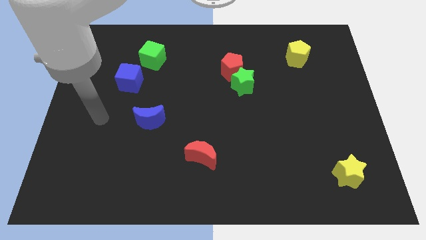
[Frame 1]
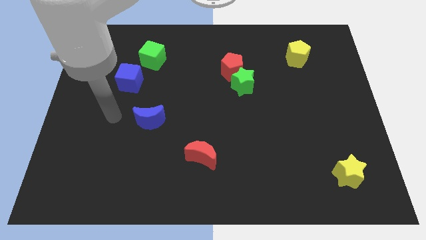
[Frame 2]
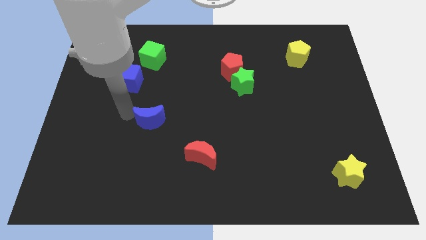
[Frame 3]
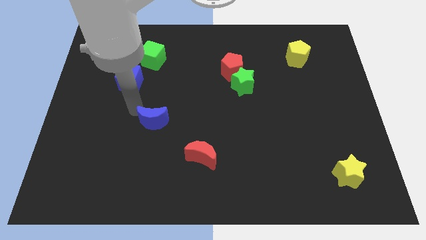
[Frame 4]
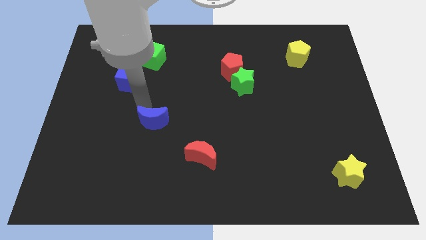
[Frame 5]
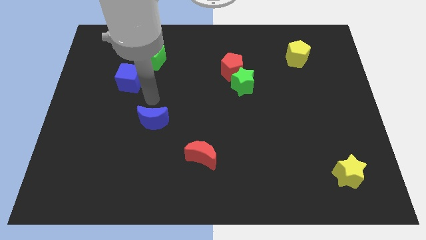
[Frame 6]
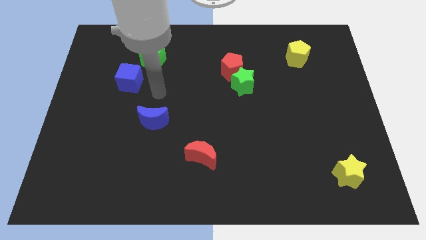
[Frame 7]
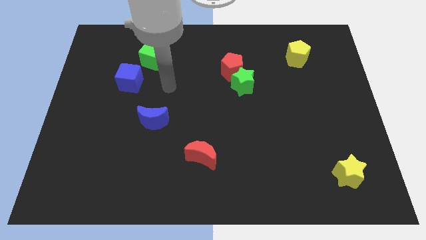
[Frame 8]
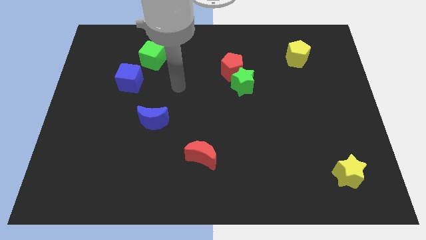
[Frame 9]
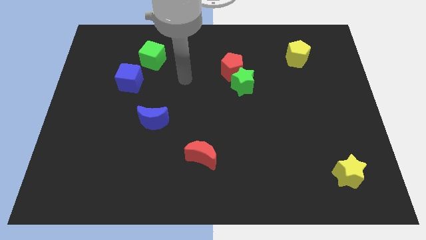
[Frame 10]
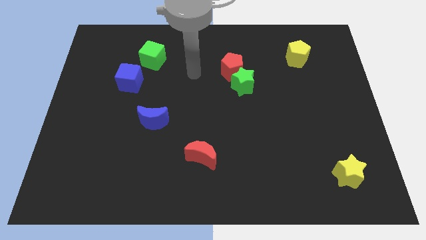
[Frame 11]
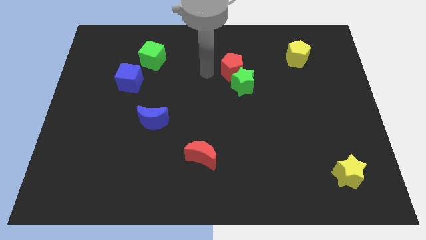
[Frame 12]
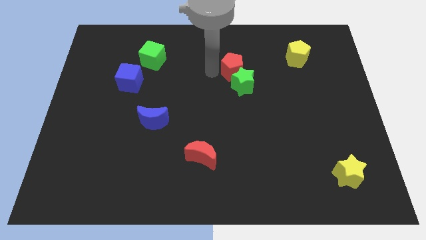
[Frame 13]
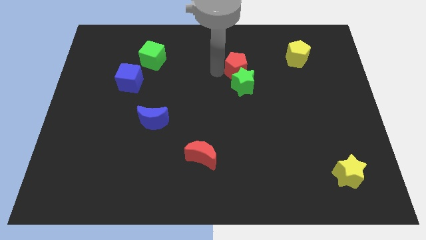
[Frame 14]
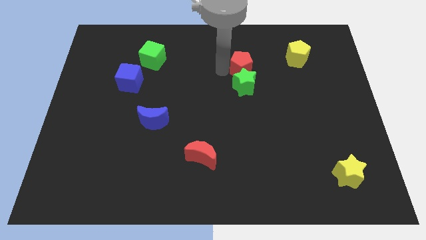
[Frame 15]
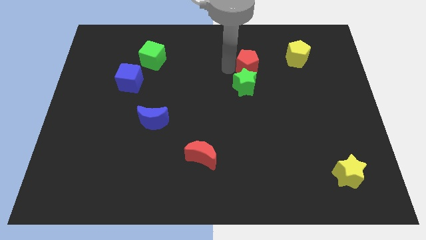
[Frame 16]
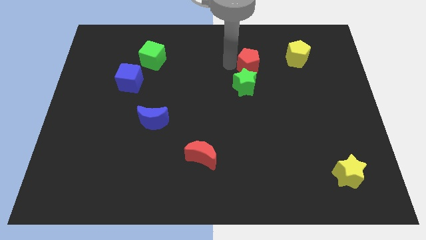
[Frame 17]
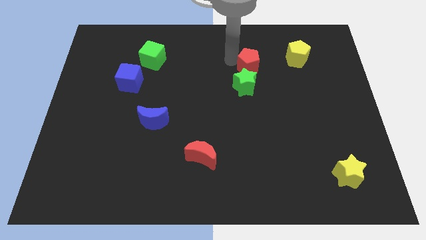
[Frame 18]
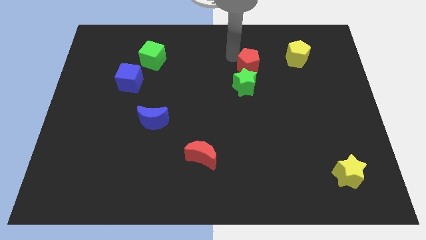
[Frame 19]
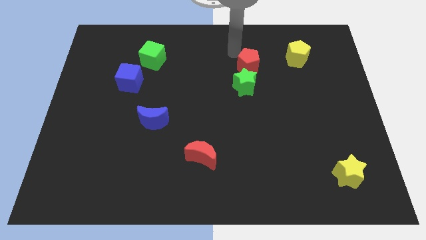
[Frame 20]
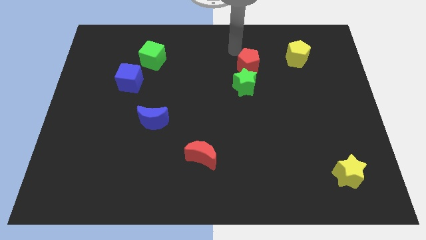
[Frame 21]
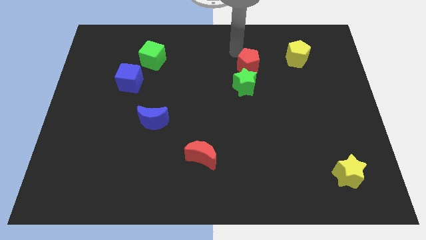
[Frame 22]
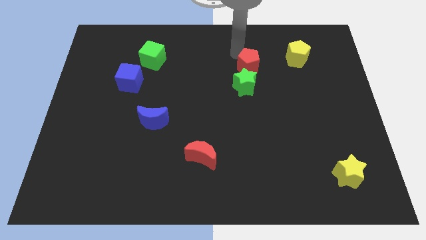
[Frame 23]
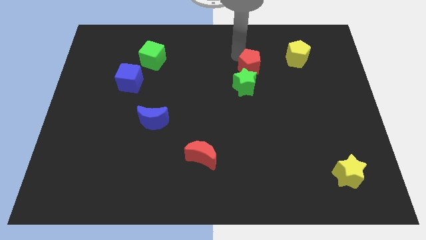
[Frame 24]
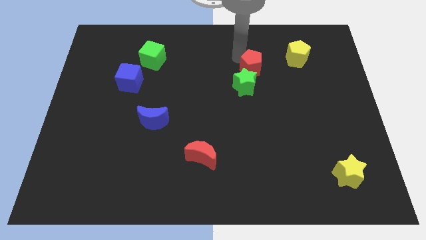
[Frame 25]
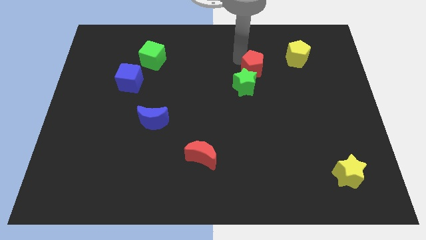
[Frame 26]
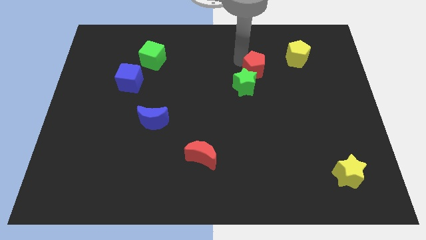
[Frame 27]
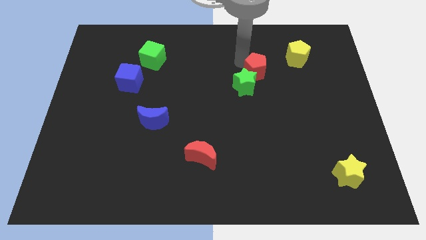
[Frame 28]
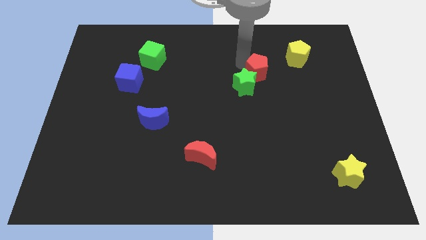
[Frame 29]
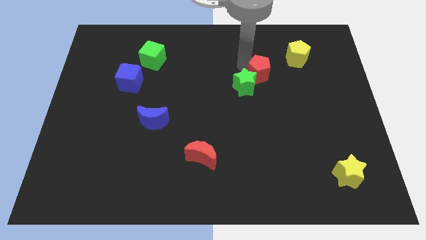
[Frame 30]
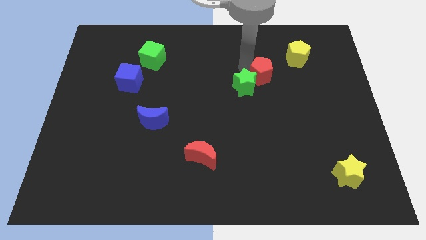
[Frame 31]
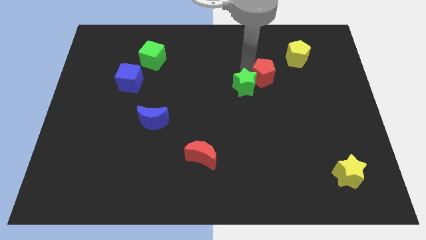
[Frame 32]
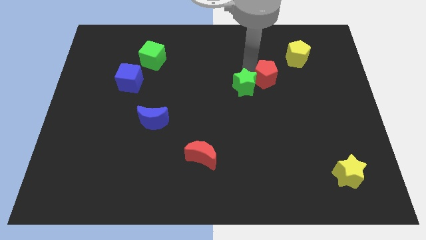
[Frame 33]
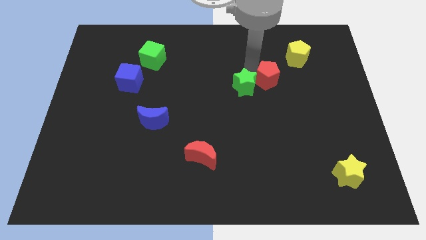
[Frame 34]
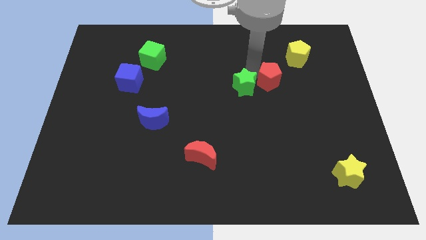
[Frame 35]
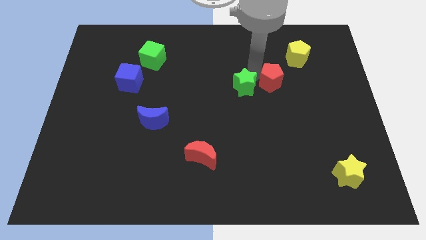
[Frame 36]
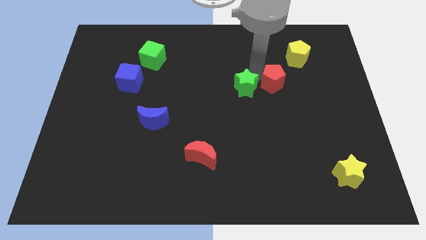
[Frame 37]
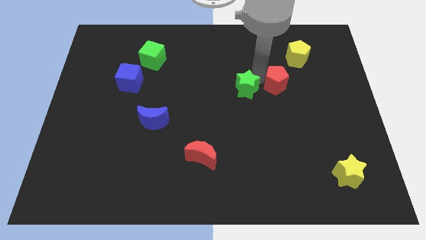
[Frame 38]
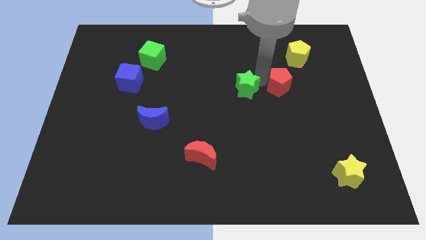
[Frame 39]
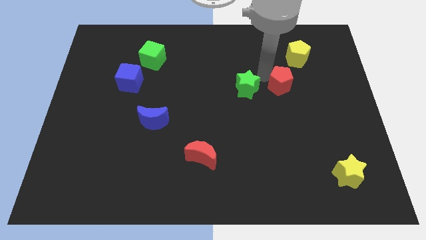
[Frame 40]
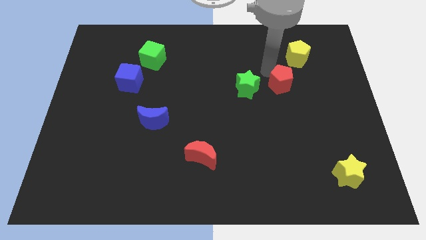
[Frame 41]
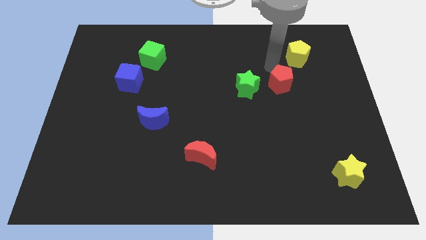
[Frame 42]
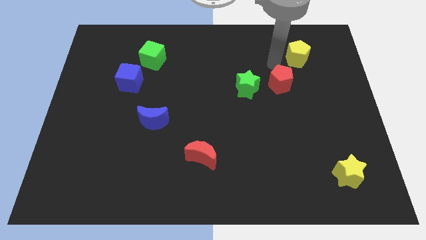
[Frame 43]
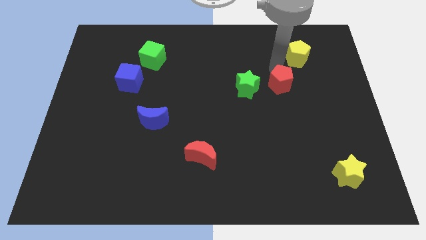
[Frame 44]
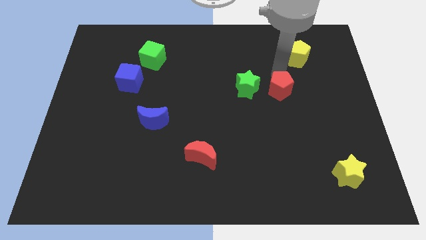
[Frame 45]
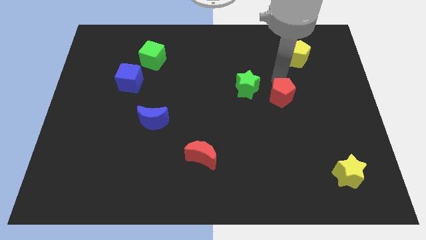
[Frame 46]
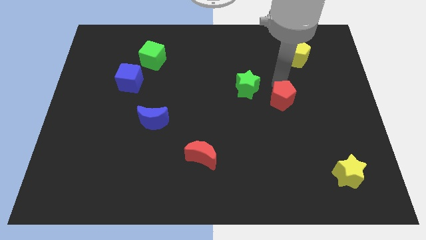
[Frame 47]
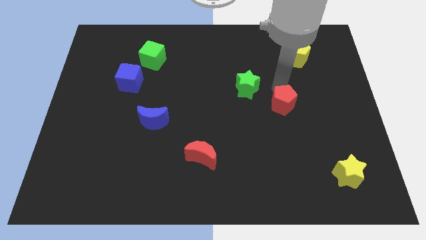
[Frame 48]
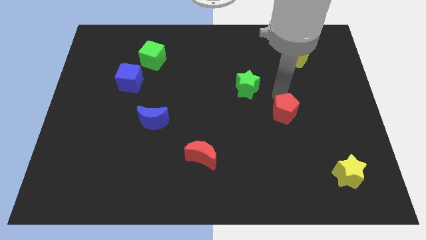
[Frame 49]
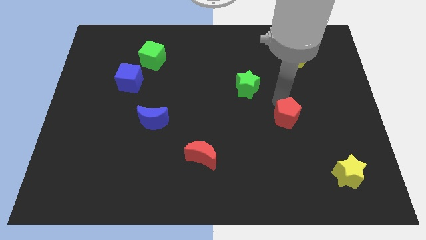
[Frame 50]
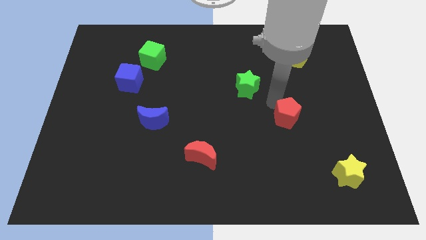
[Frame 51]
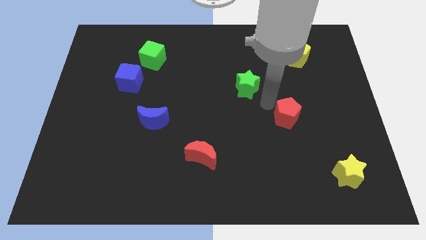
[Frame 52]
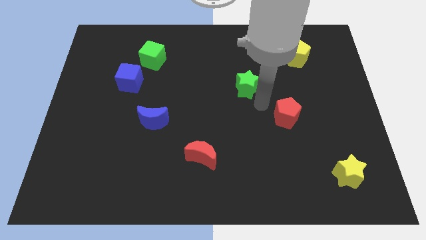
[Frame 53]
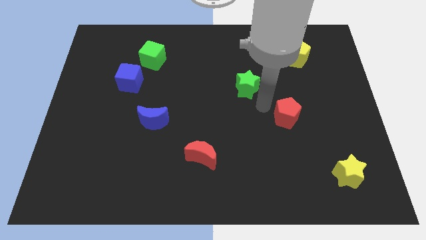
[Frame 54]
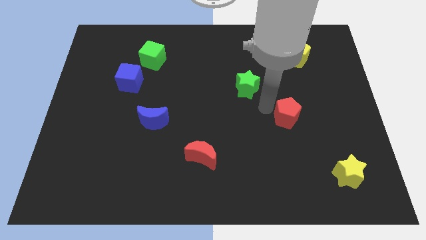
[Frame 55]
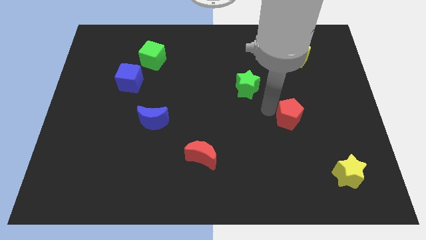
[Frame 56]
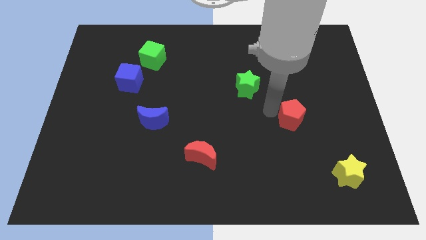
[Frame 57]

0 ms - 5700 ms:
move the red pentagon diagonally downwards and right

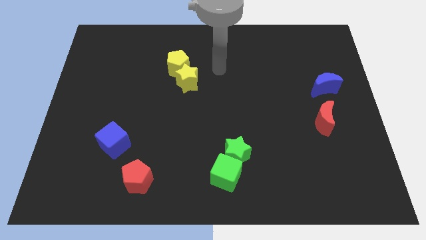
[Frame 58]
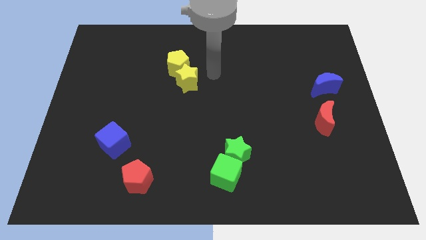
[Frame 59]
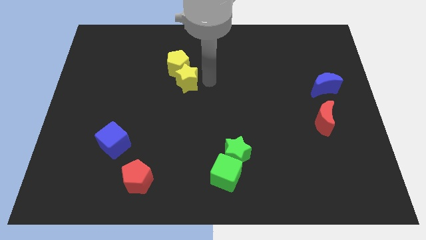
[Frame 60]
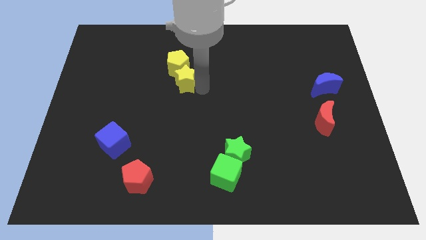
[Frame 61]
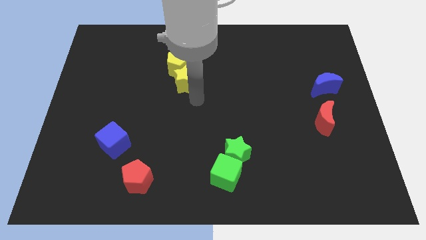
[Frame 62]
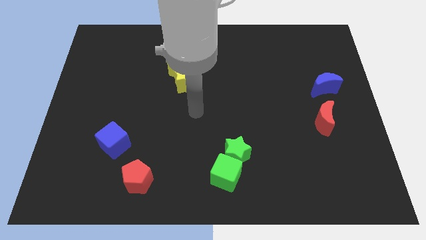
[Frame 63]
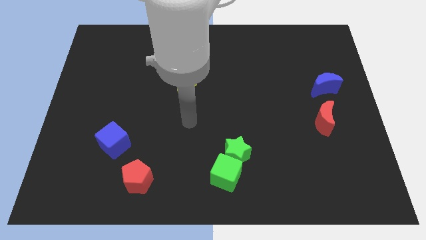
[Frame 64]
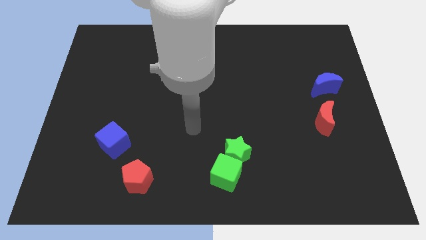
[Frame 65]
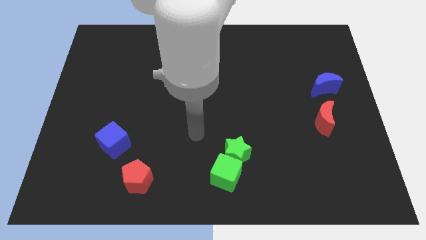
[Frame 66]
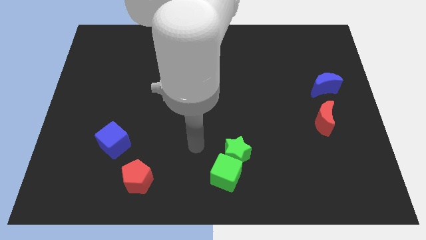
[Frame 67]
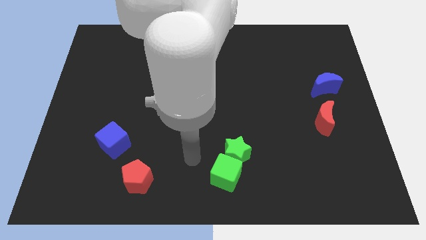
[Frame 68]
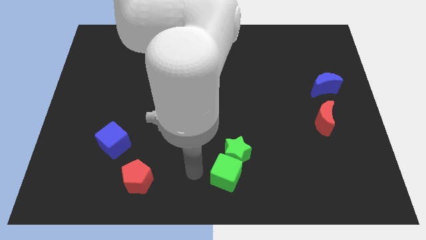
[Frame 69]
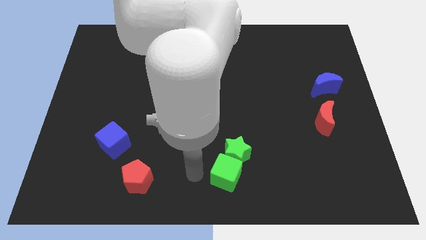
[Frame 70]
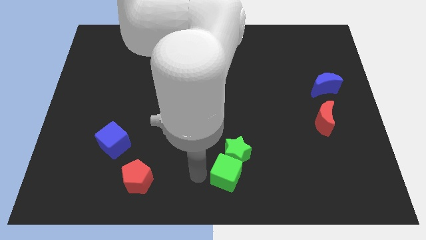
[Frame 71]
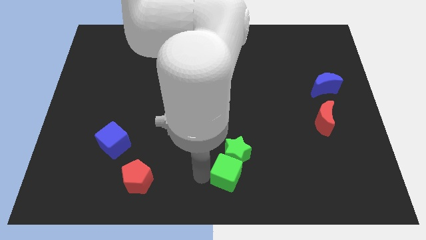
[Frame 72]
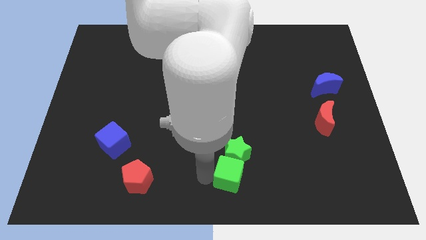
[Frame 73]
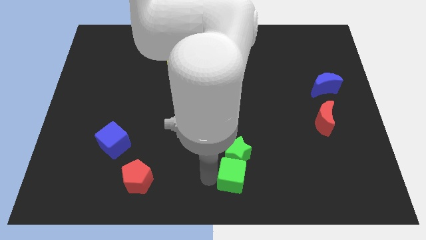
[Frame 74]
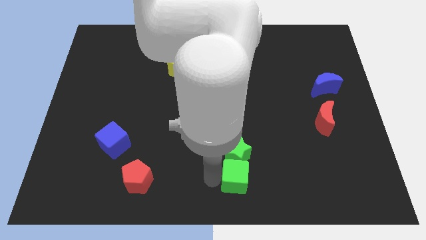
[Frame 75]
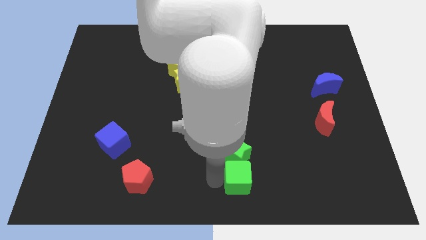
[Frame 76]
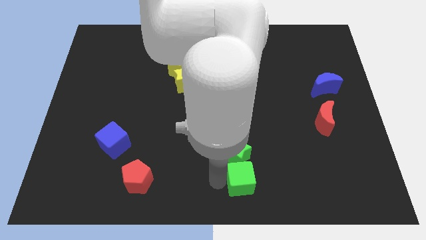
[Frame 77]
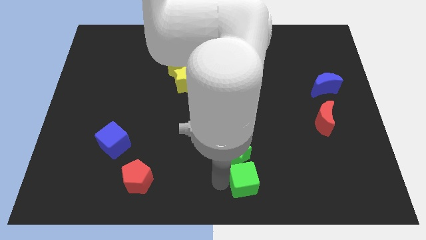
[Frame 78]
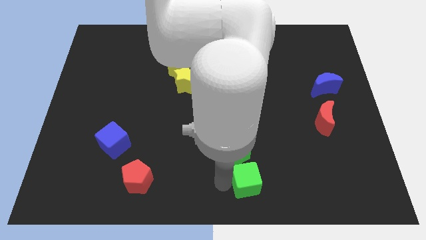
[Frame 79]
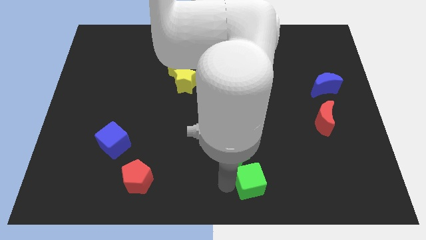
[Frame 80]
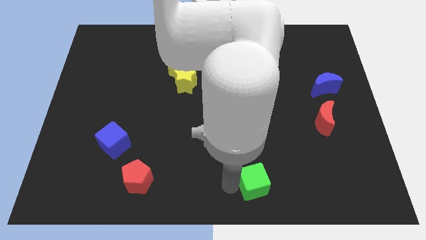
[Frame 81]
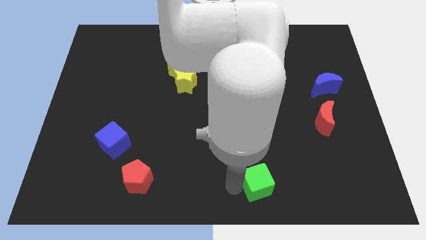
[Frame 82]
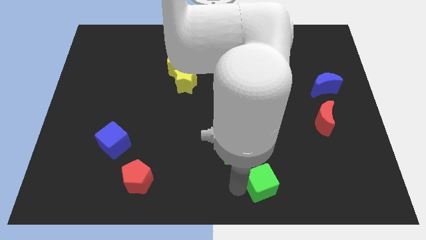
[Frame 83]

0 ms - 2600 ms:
move the green cube a little bit to the right
